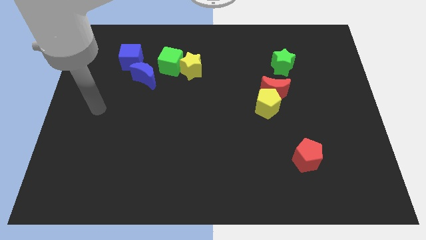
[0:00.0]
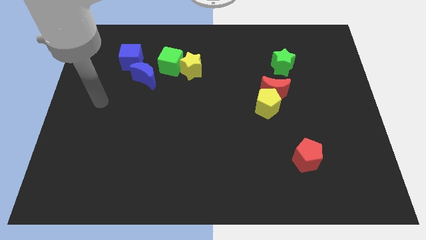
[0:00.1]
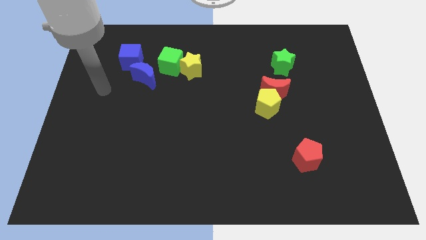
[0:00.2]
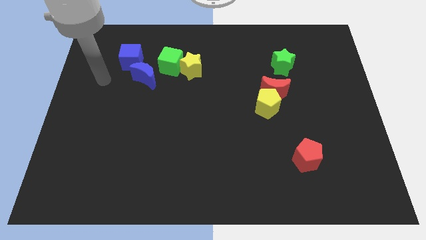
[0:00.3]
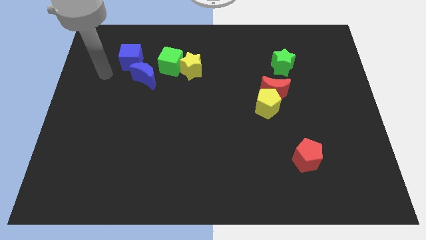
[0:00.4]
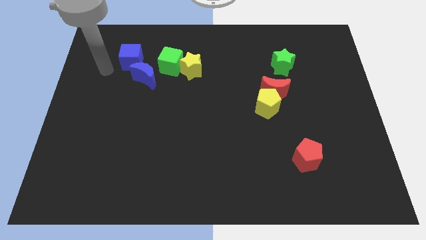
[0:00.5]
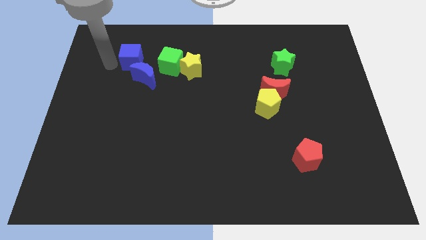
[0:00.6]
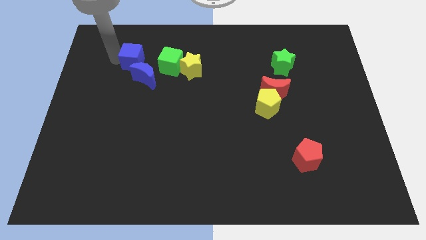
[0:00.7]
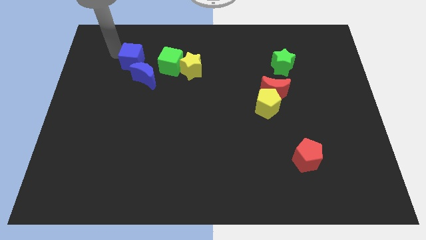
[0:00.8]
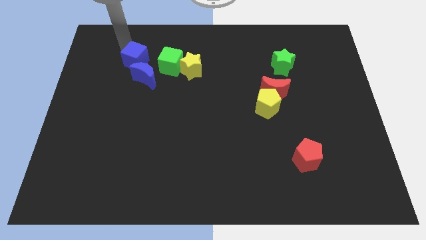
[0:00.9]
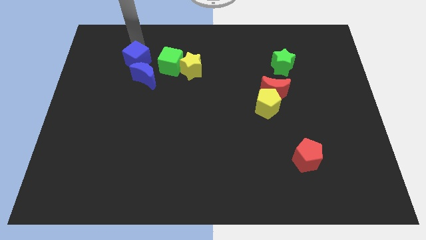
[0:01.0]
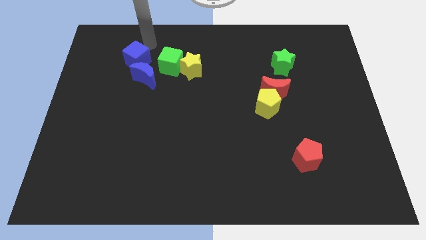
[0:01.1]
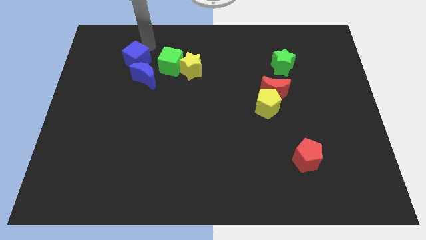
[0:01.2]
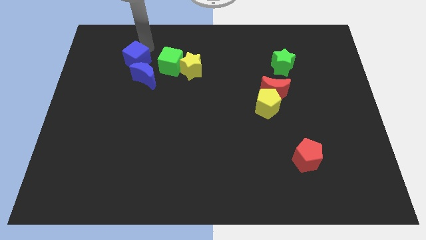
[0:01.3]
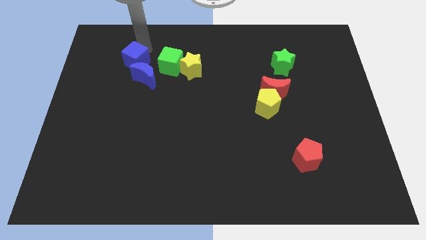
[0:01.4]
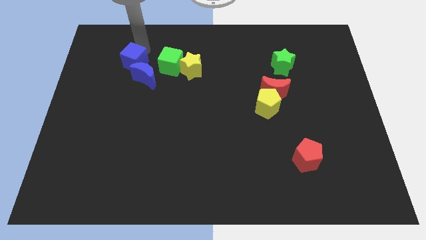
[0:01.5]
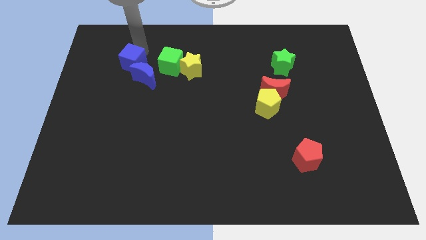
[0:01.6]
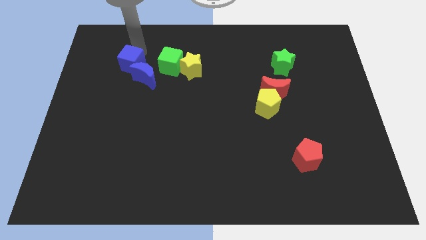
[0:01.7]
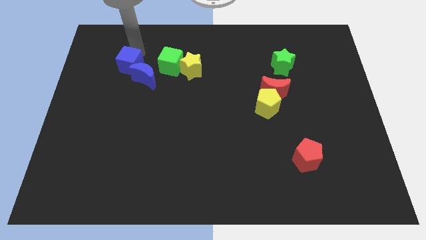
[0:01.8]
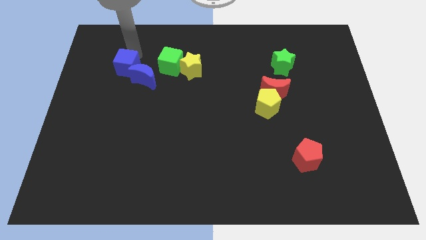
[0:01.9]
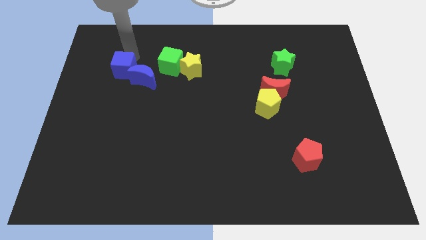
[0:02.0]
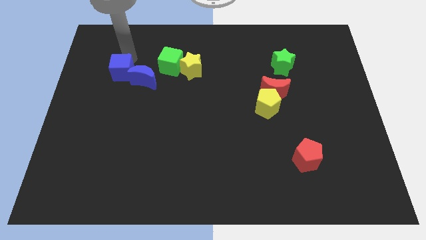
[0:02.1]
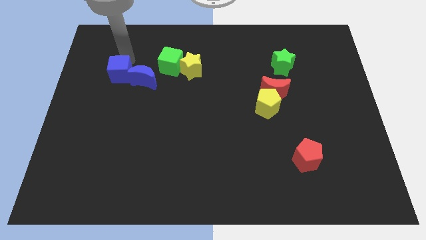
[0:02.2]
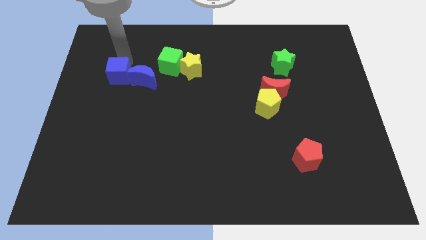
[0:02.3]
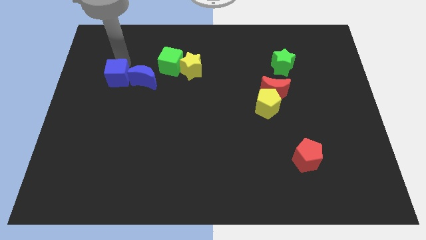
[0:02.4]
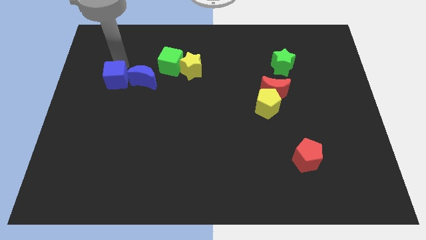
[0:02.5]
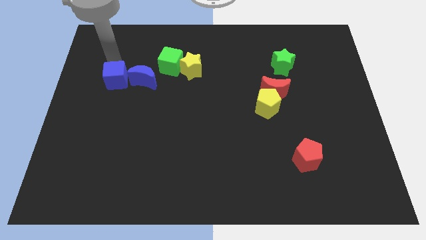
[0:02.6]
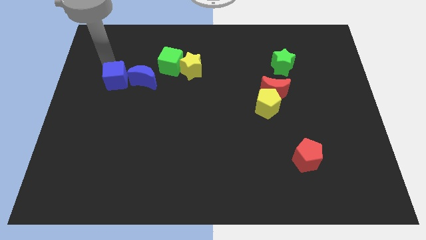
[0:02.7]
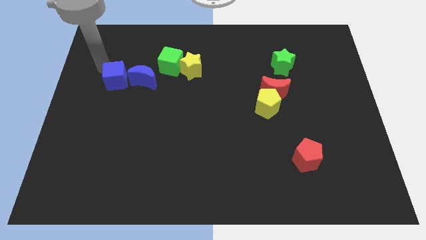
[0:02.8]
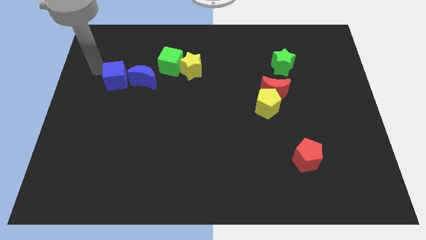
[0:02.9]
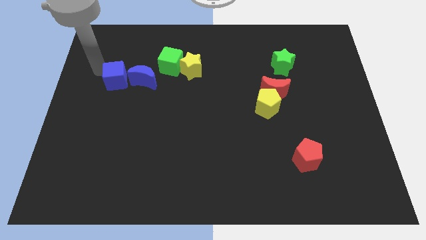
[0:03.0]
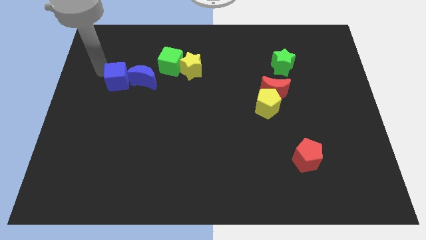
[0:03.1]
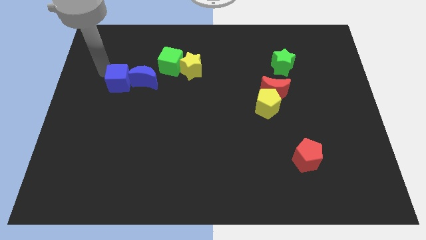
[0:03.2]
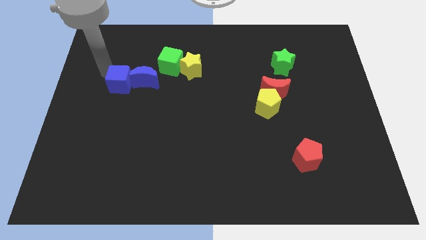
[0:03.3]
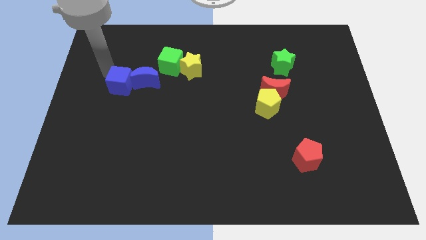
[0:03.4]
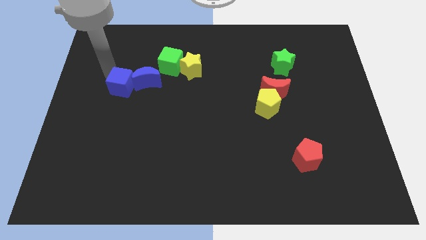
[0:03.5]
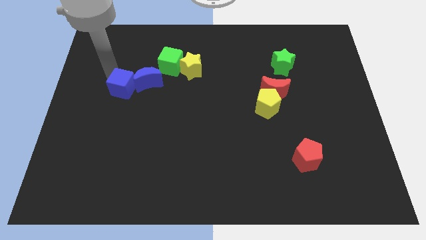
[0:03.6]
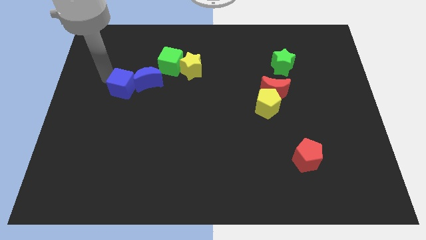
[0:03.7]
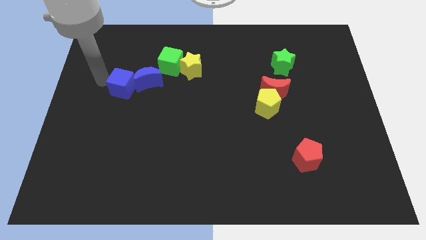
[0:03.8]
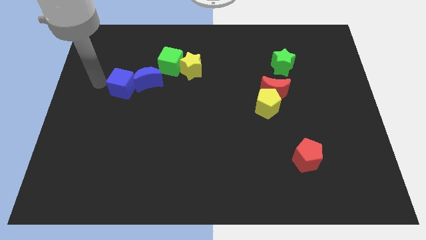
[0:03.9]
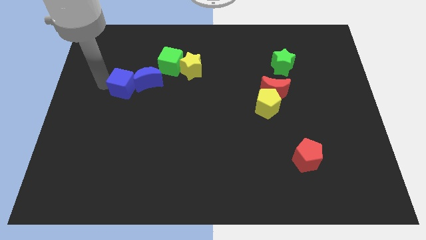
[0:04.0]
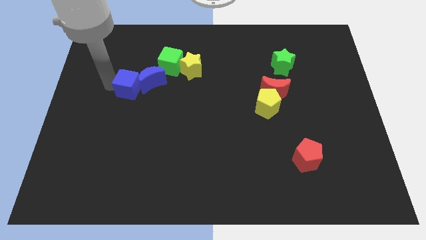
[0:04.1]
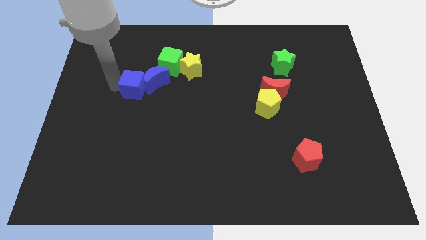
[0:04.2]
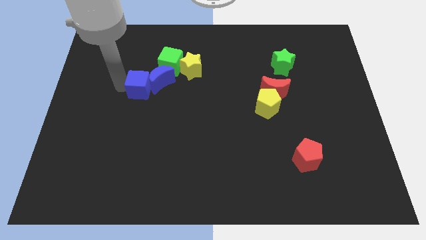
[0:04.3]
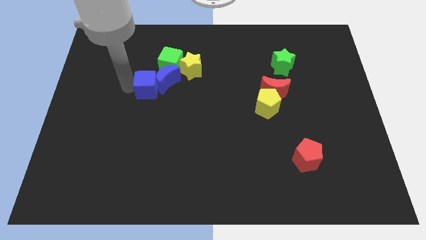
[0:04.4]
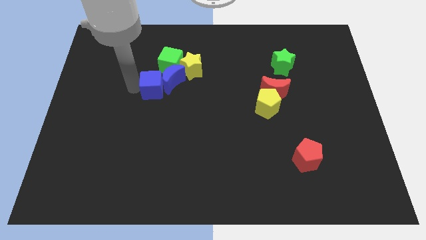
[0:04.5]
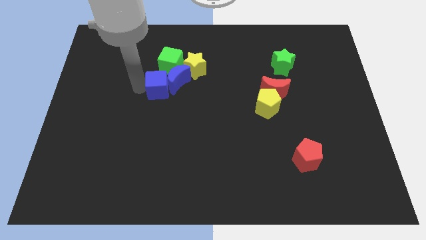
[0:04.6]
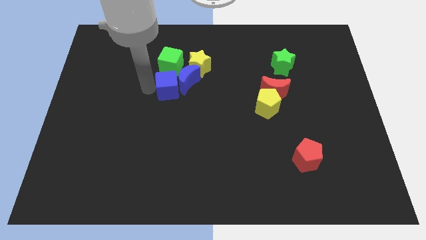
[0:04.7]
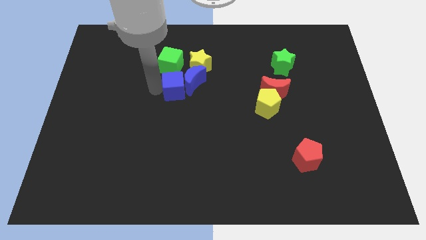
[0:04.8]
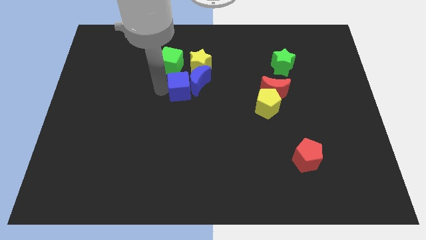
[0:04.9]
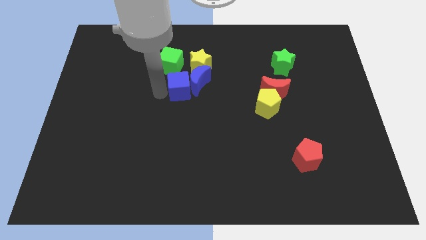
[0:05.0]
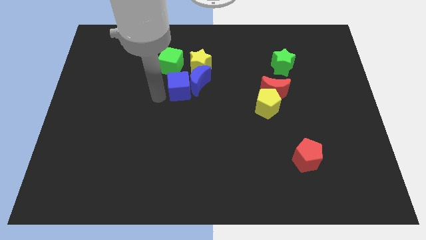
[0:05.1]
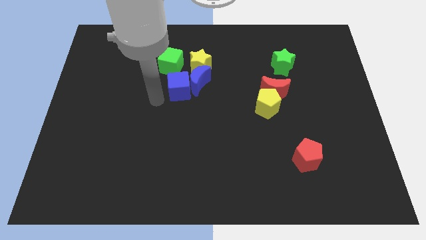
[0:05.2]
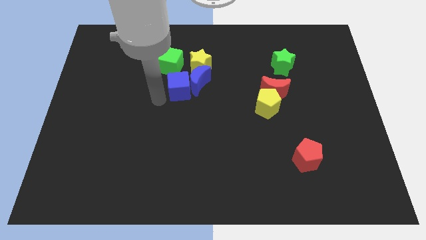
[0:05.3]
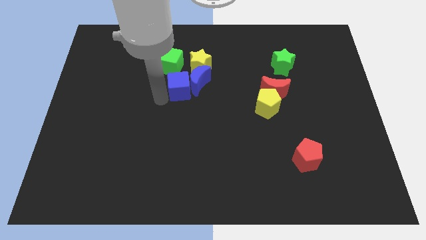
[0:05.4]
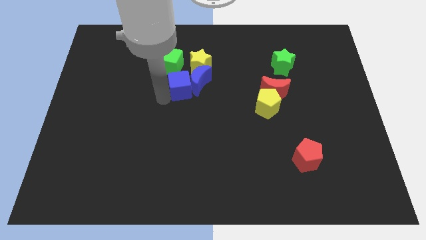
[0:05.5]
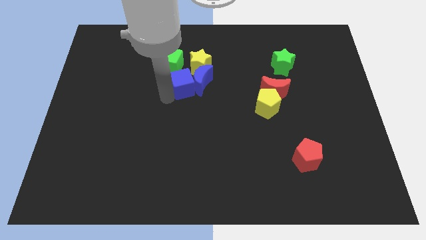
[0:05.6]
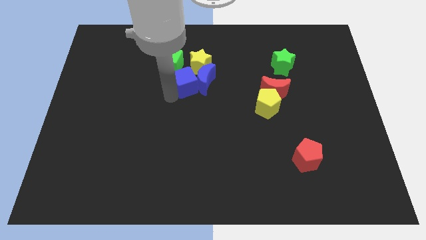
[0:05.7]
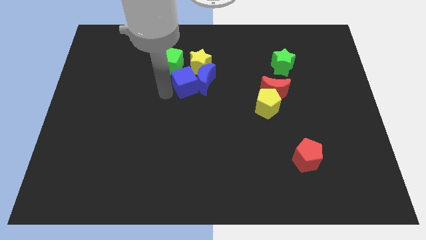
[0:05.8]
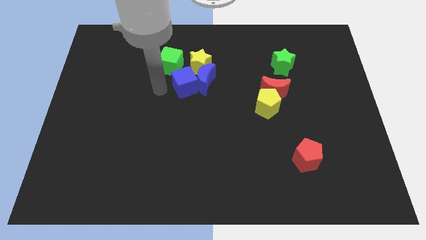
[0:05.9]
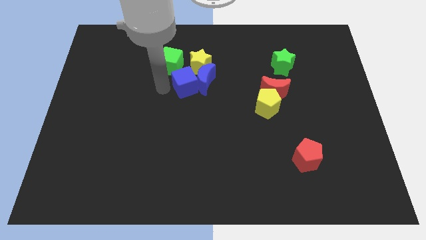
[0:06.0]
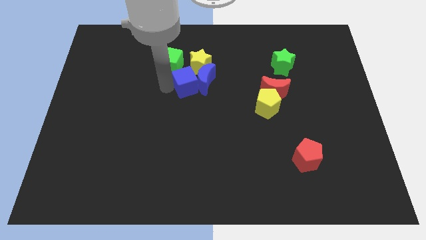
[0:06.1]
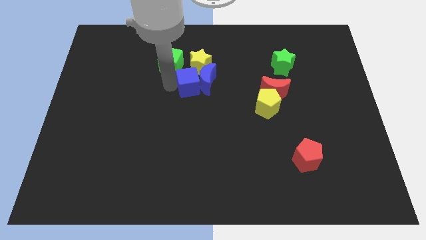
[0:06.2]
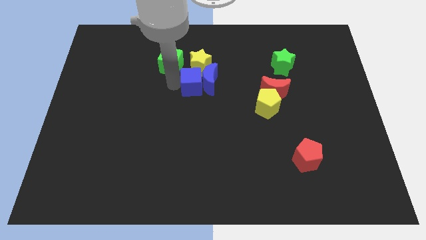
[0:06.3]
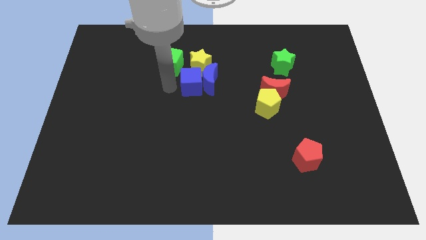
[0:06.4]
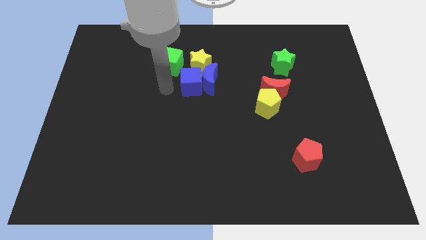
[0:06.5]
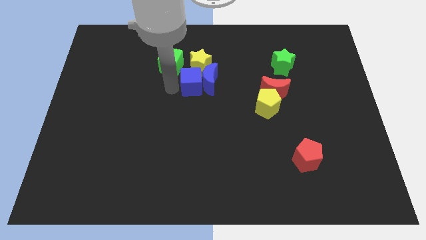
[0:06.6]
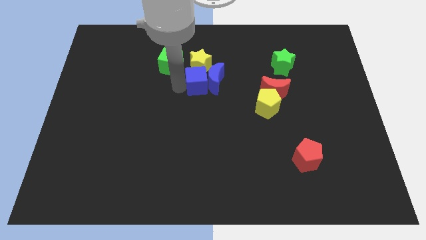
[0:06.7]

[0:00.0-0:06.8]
put the blue cube to the bottom right side of the yellow star

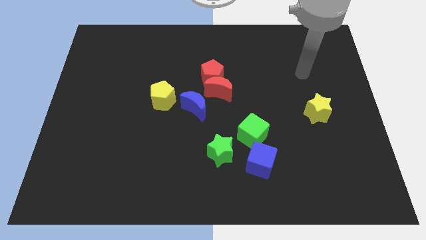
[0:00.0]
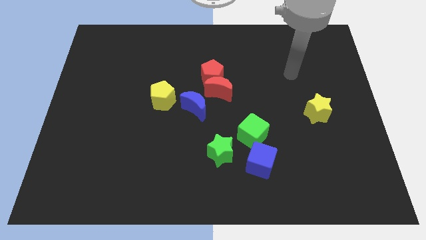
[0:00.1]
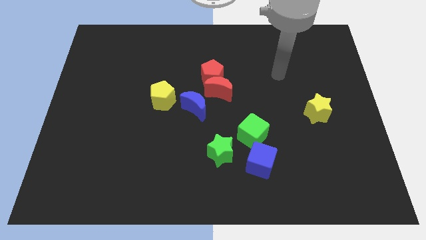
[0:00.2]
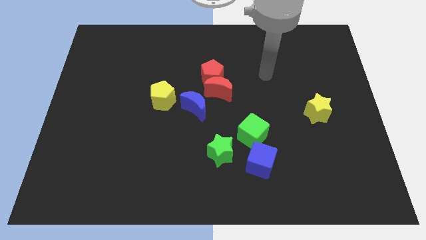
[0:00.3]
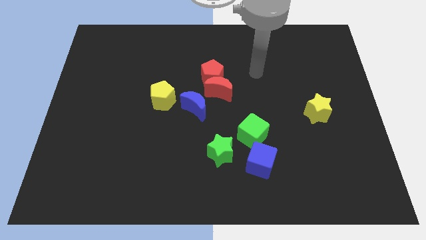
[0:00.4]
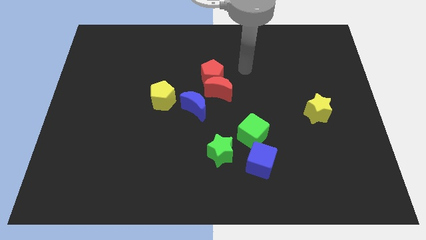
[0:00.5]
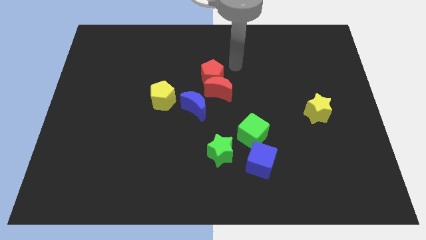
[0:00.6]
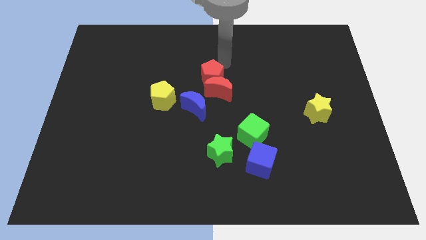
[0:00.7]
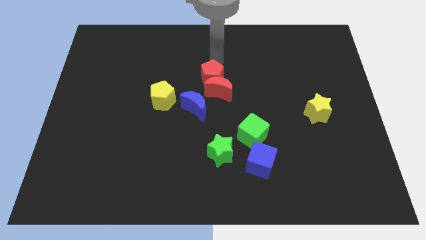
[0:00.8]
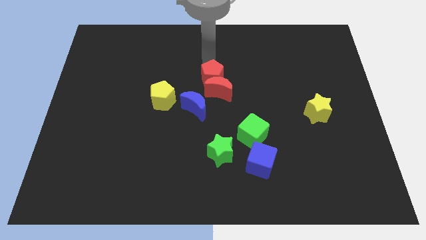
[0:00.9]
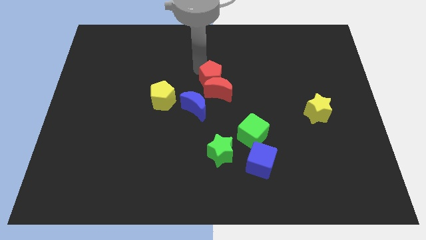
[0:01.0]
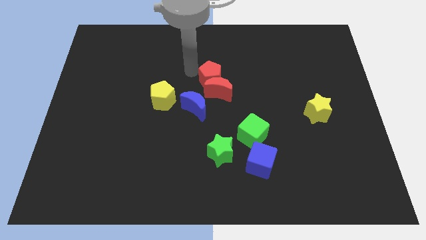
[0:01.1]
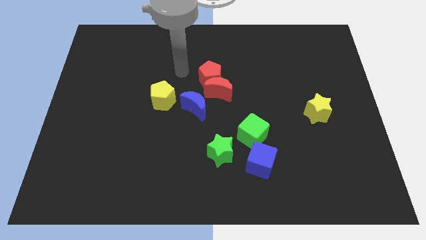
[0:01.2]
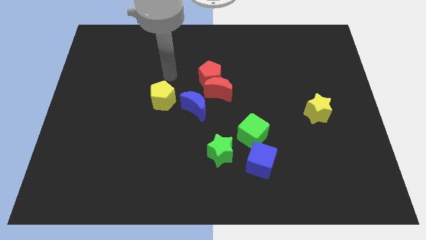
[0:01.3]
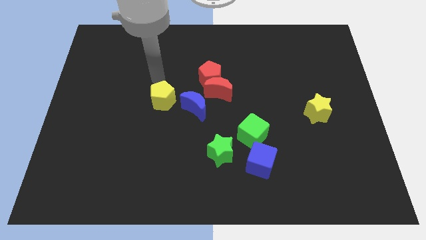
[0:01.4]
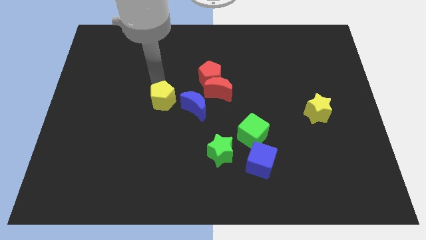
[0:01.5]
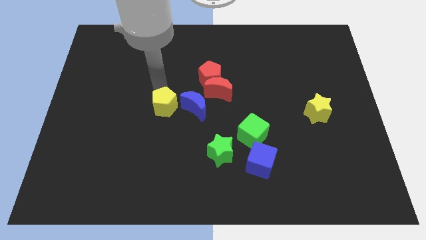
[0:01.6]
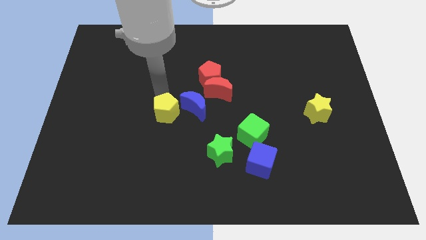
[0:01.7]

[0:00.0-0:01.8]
push the yellow pentagon to the bottom left of the blue moon
